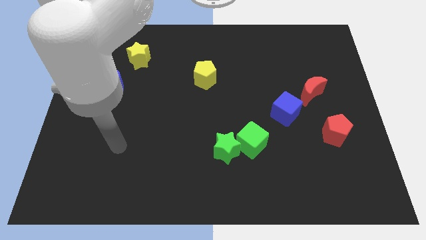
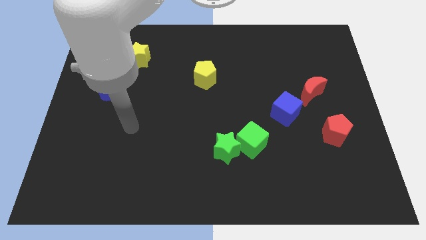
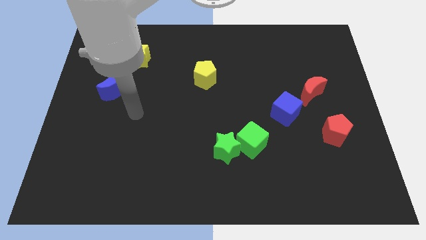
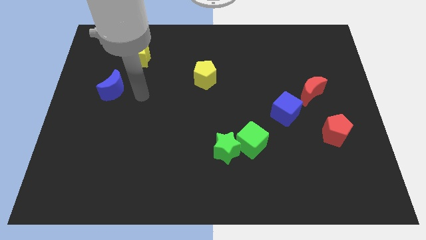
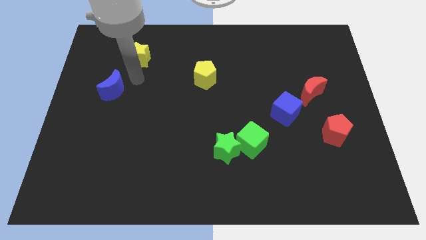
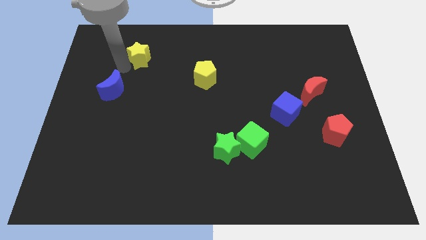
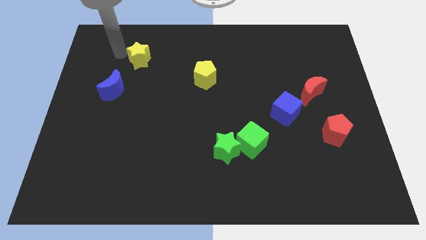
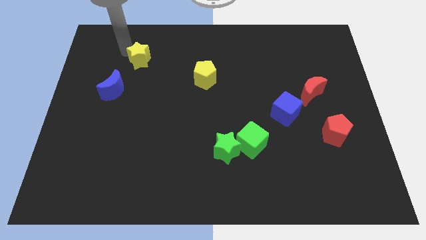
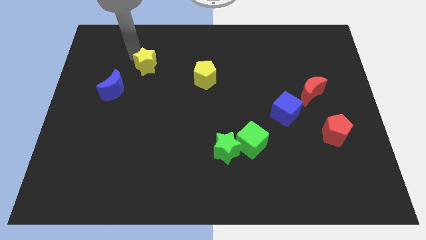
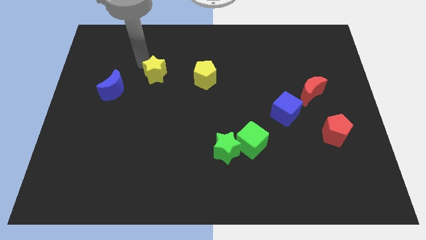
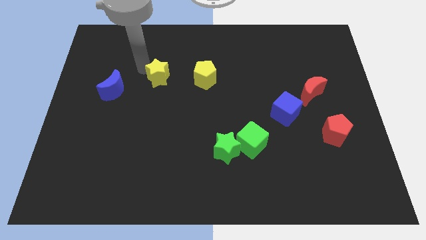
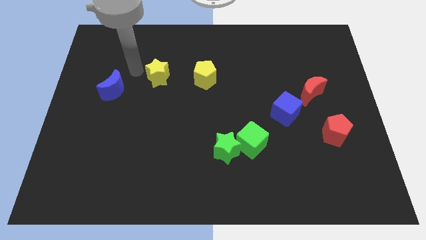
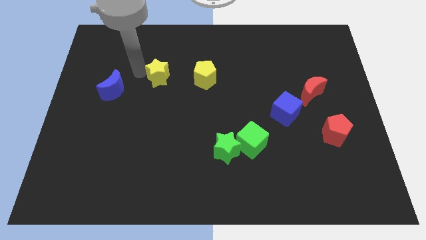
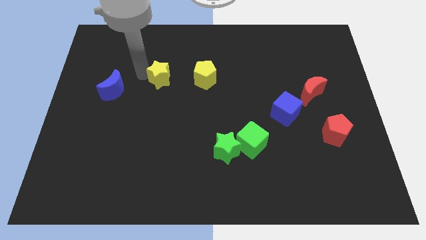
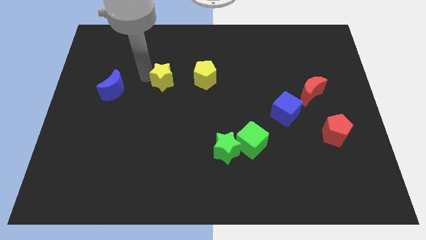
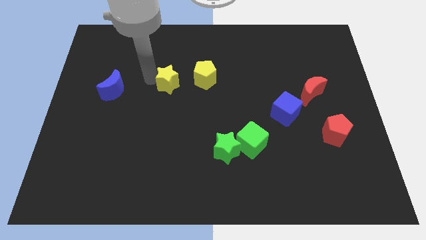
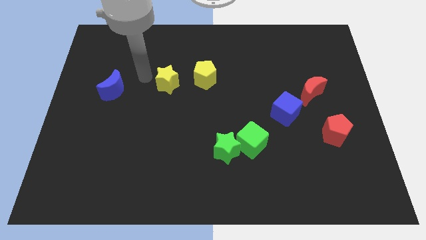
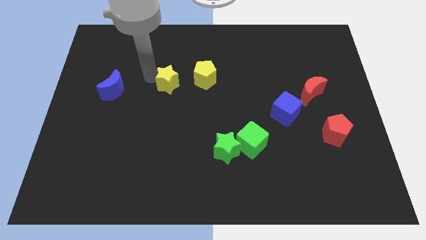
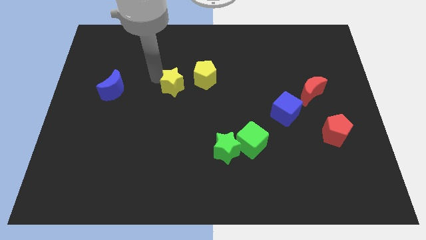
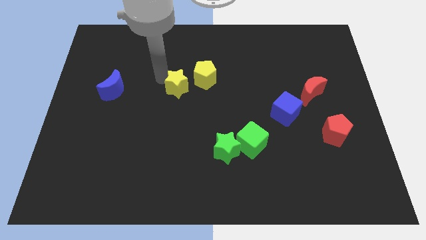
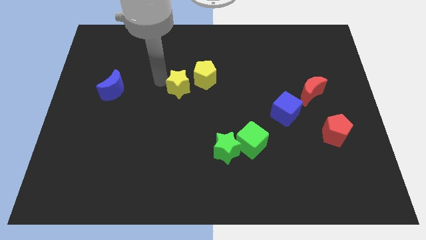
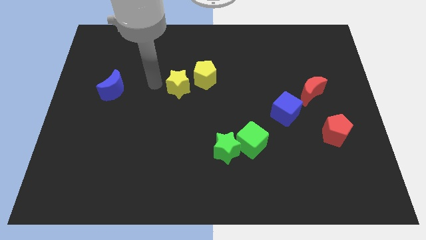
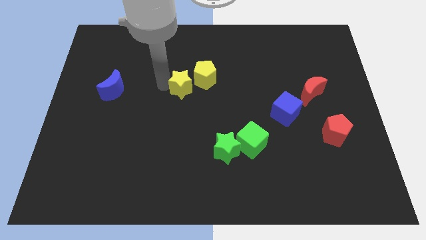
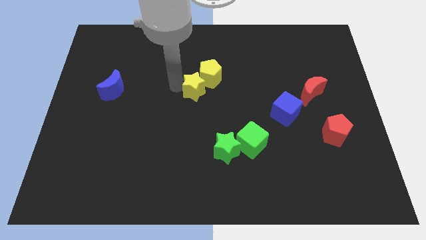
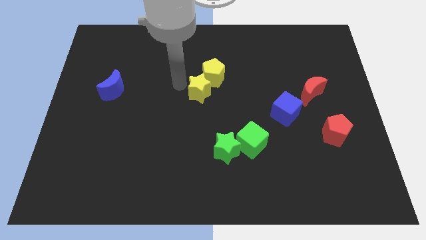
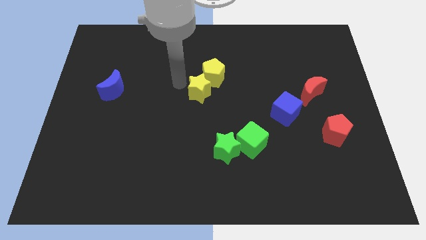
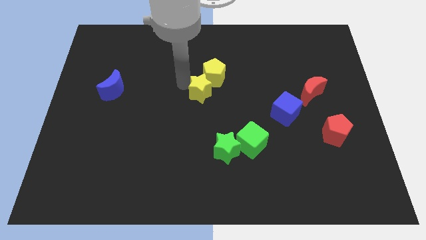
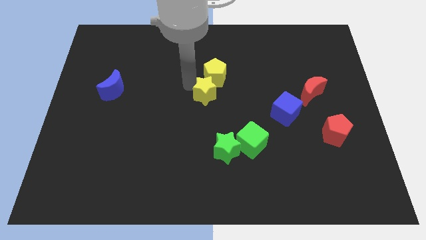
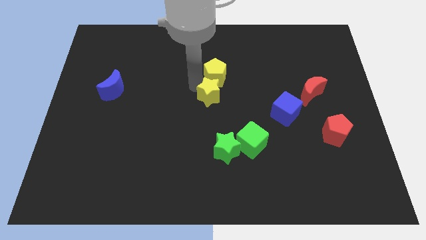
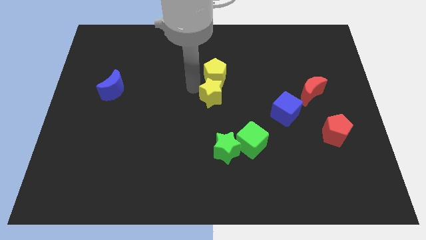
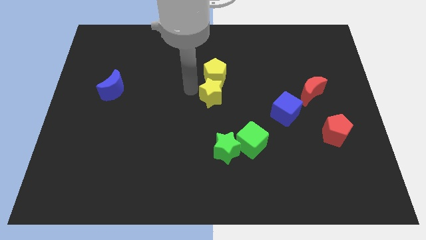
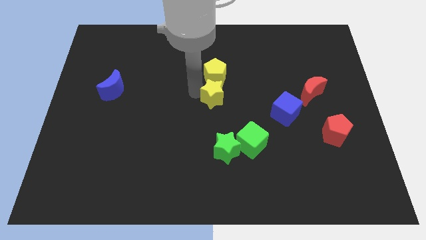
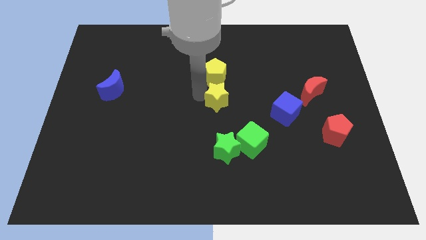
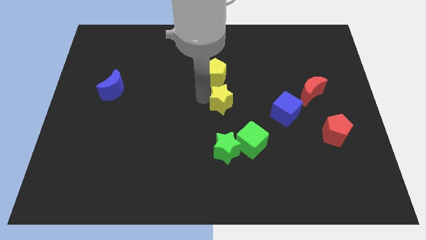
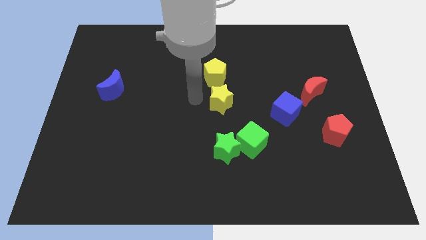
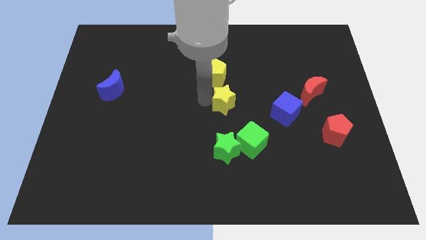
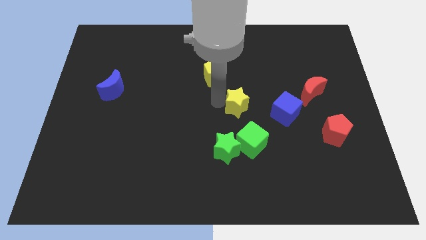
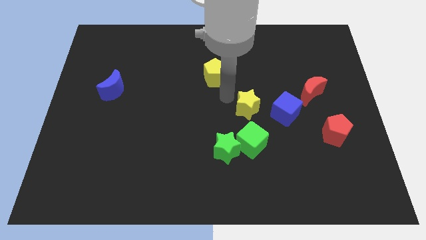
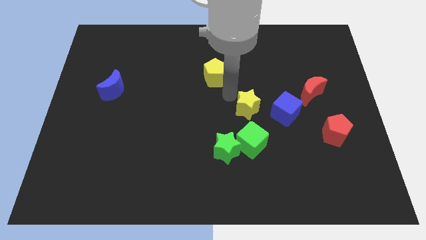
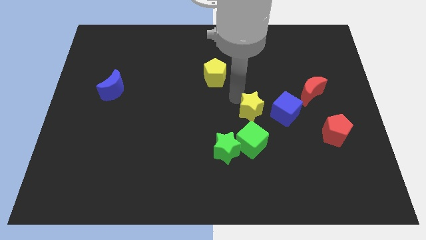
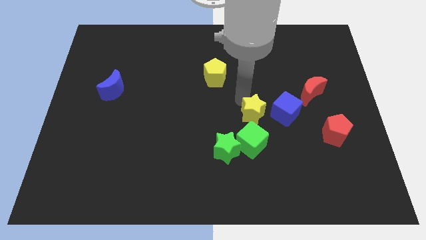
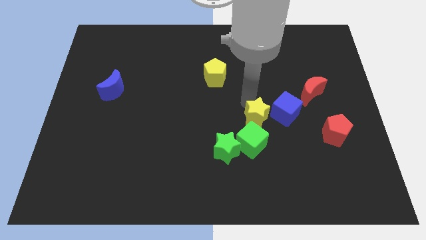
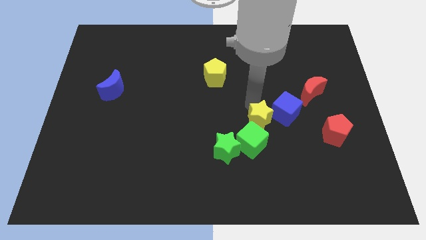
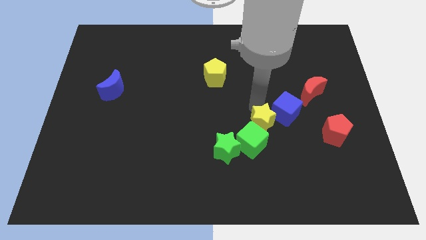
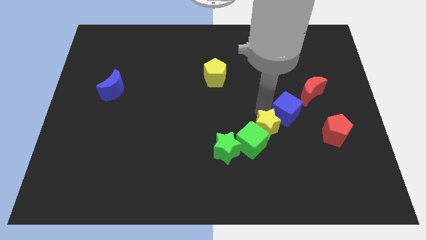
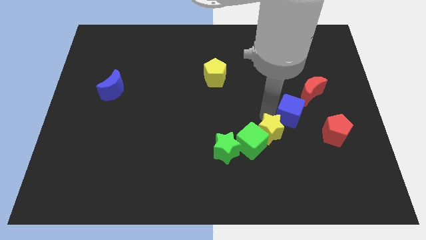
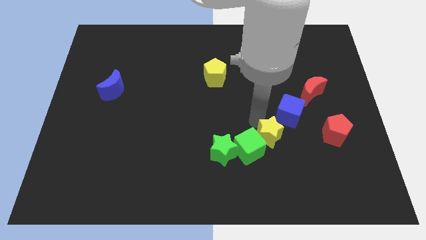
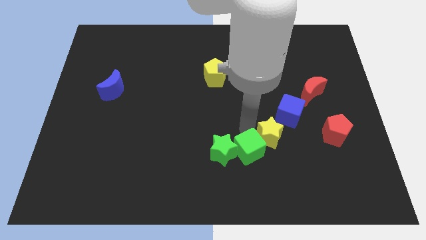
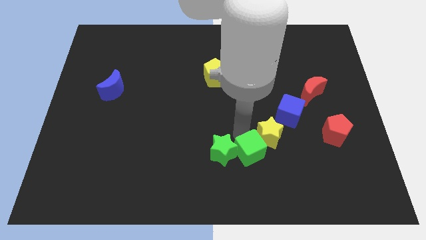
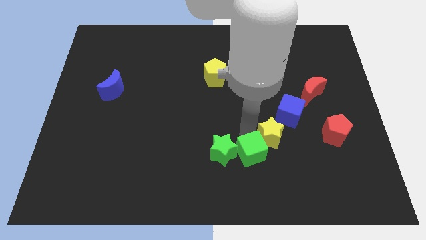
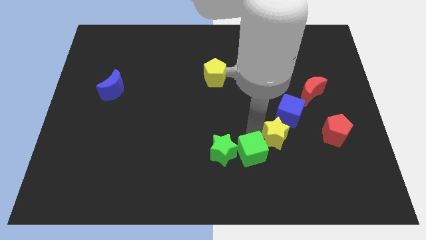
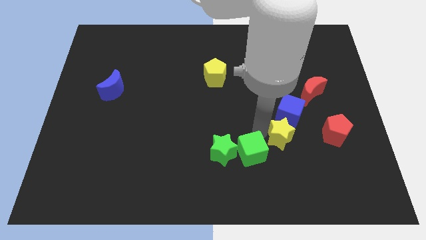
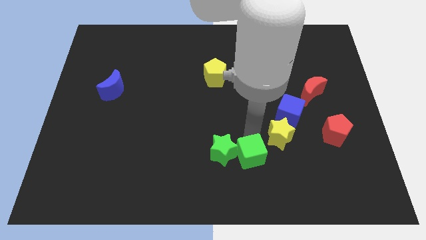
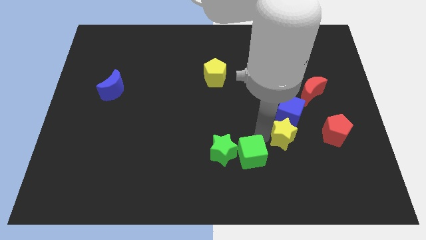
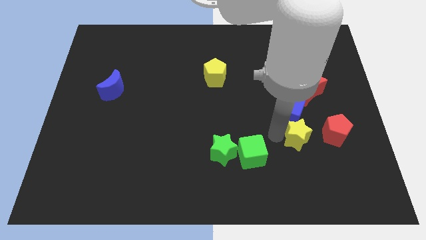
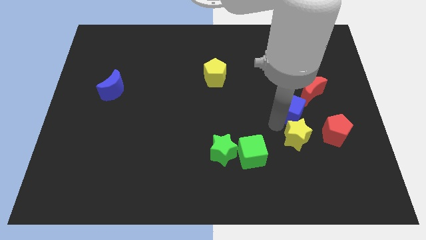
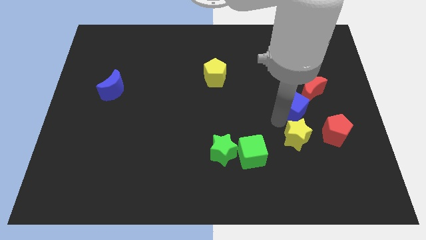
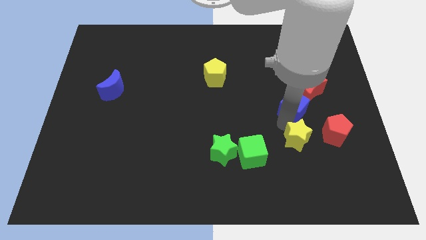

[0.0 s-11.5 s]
push the yellow star diagonally down and to the left of the red pentagon

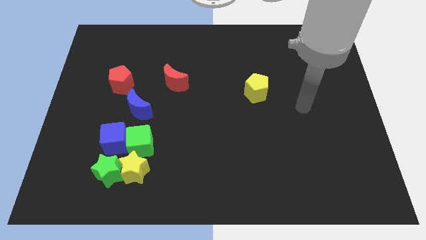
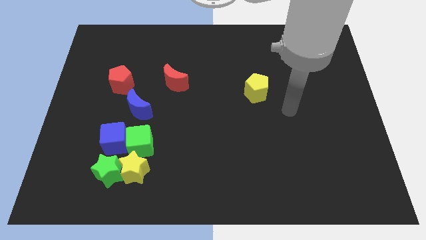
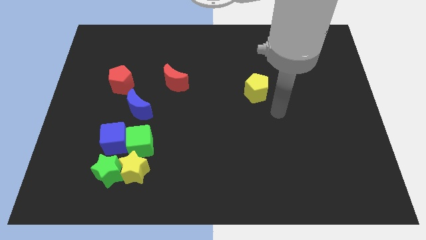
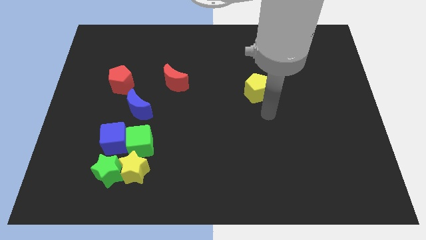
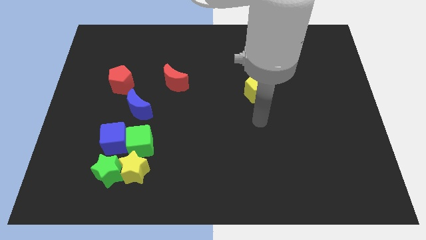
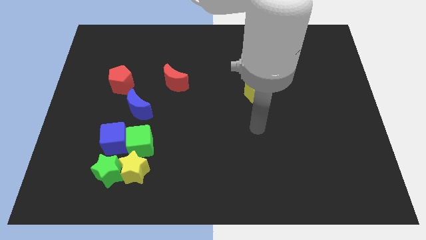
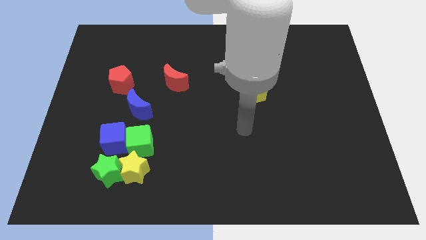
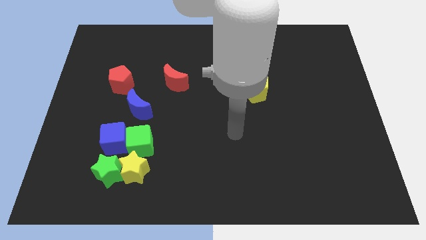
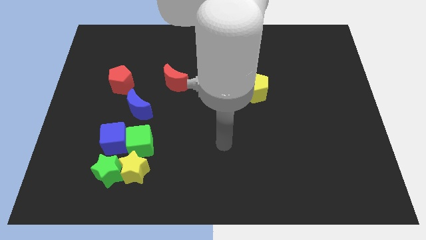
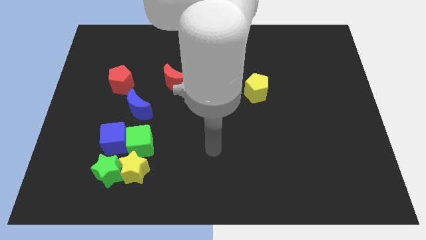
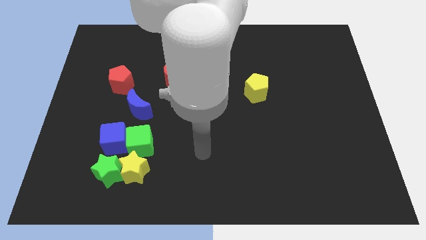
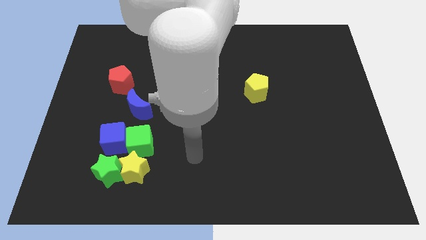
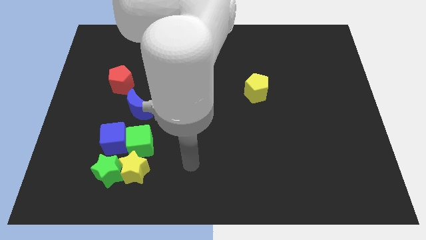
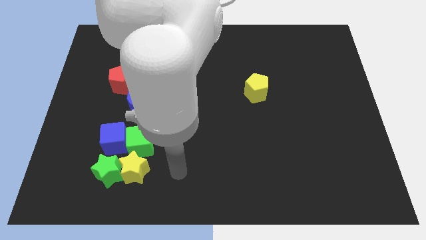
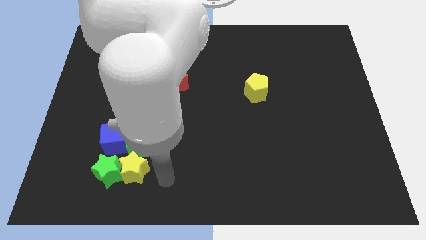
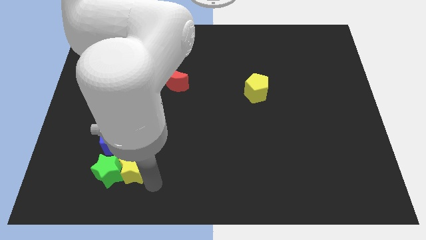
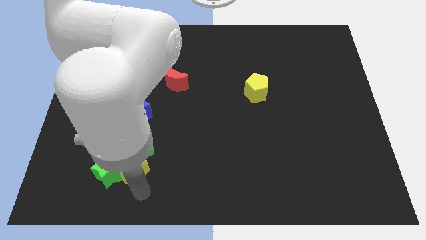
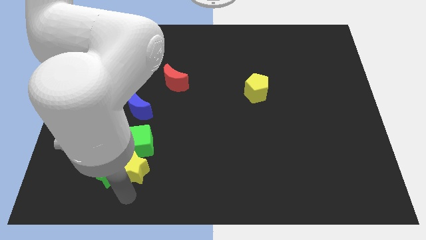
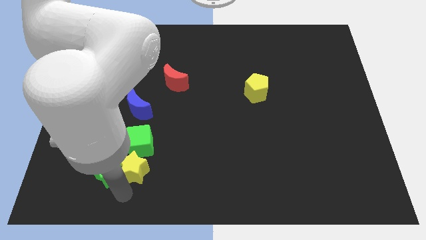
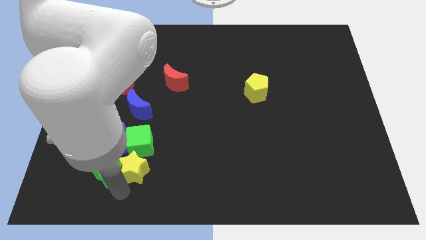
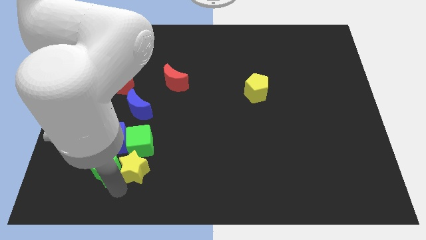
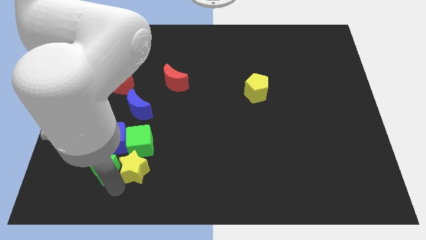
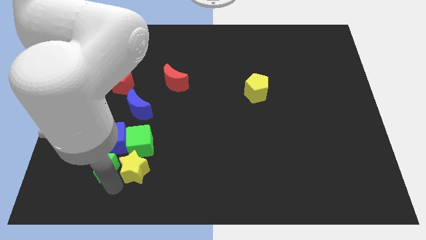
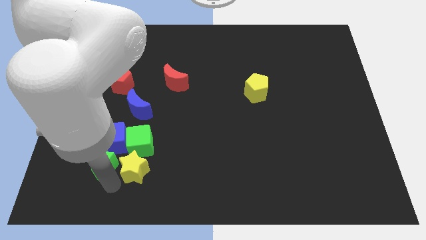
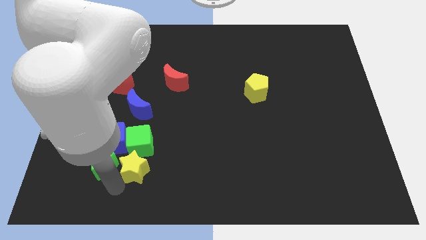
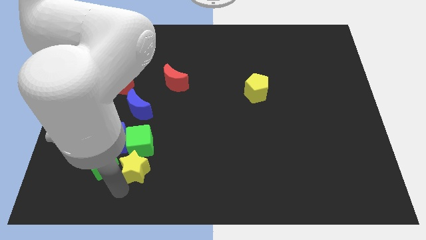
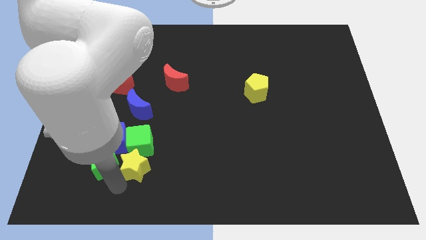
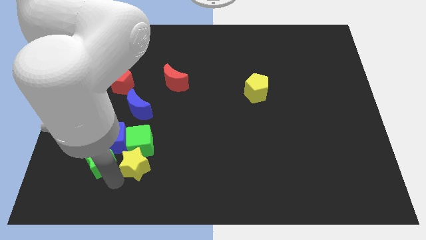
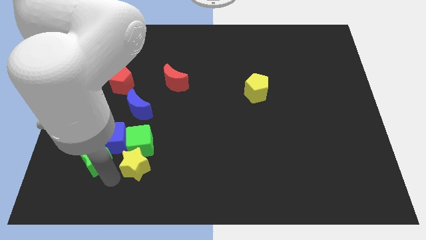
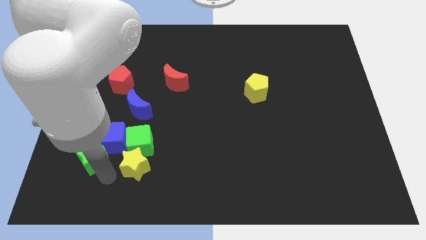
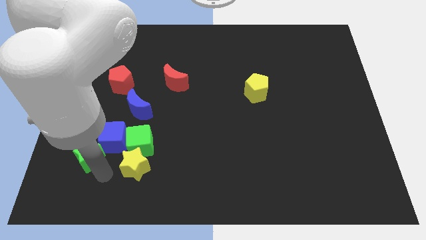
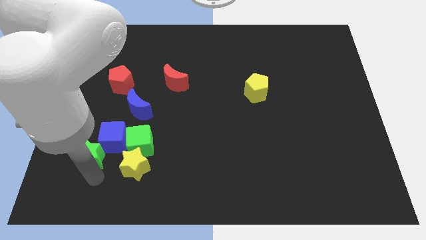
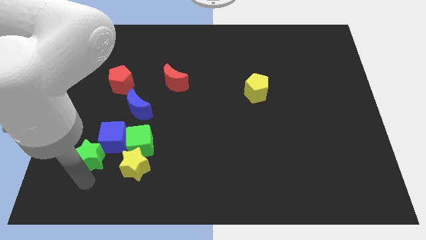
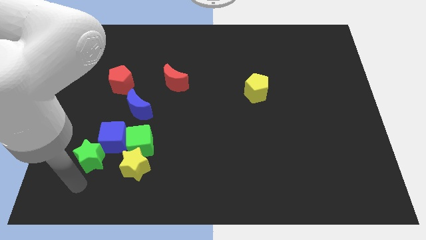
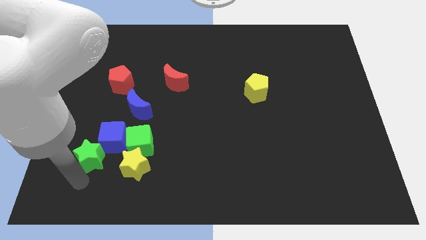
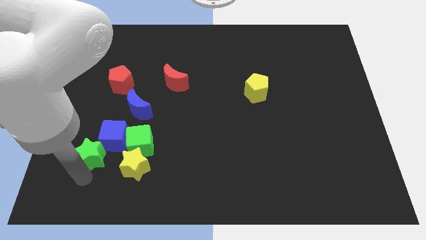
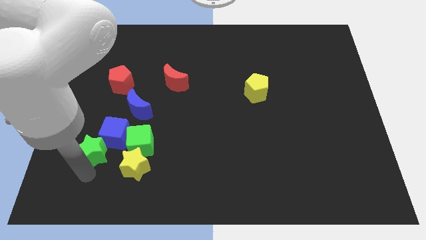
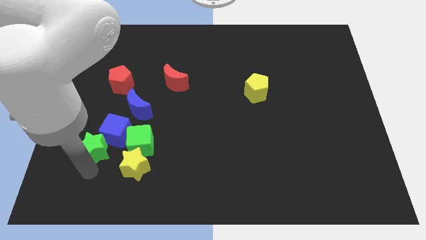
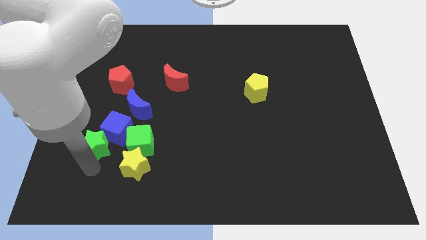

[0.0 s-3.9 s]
put the green star to the bottom left side of the blue moon
